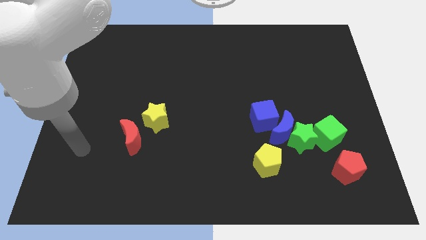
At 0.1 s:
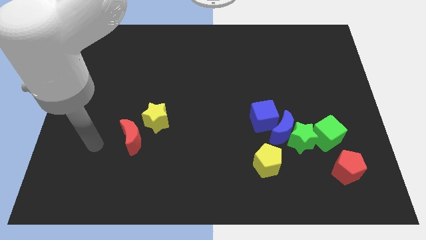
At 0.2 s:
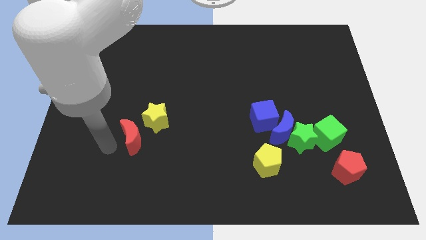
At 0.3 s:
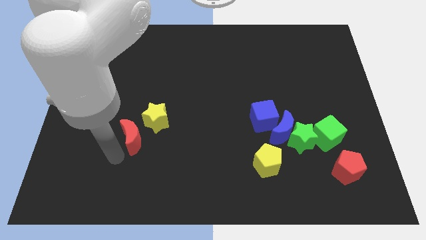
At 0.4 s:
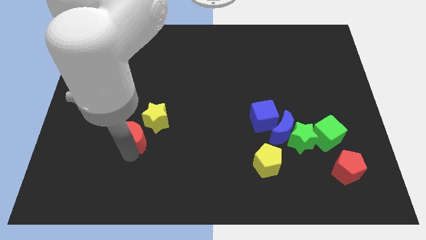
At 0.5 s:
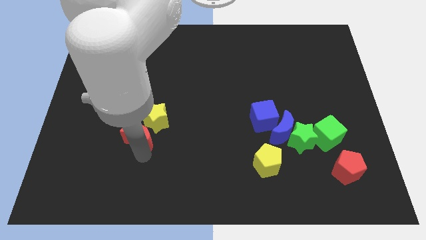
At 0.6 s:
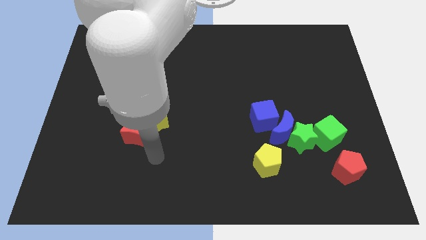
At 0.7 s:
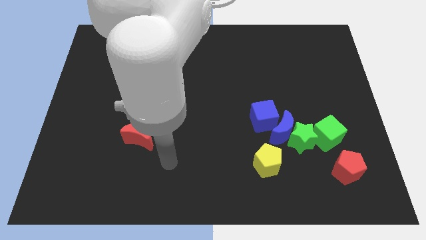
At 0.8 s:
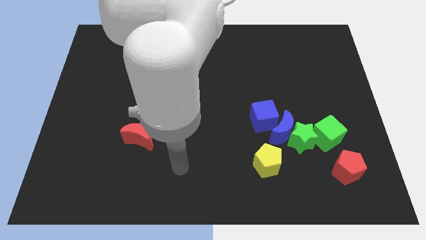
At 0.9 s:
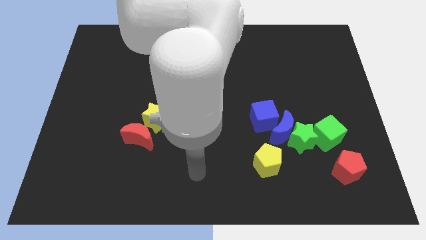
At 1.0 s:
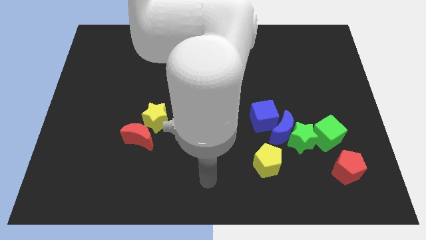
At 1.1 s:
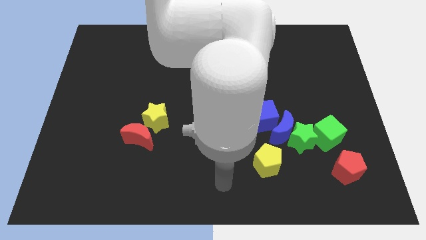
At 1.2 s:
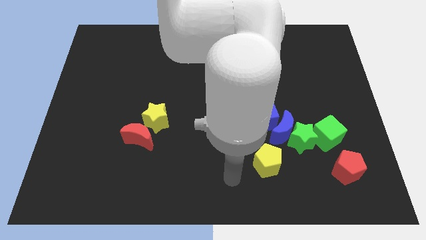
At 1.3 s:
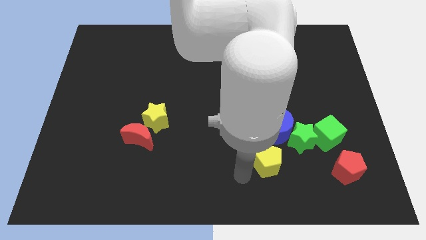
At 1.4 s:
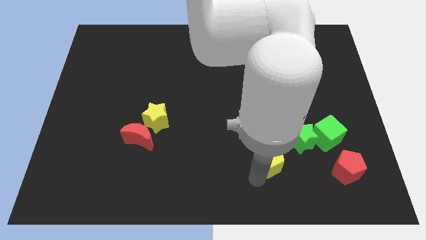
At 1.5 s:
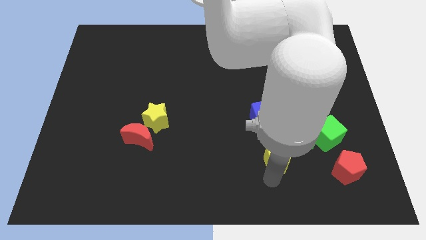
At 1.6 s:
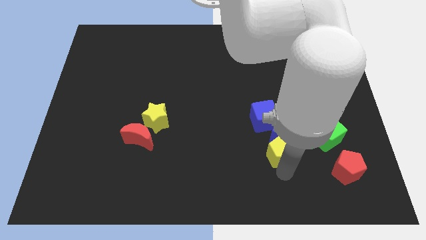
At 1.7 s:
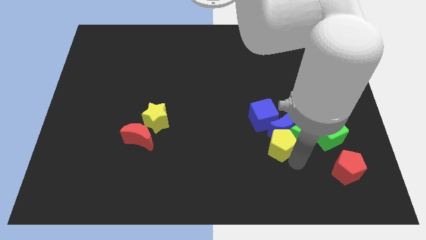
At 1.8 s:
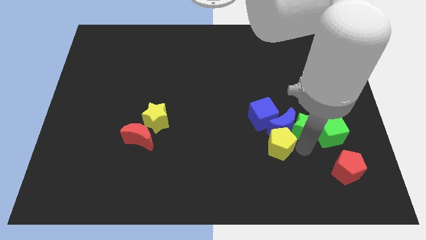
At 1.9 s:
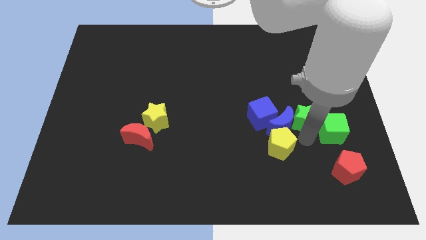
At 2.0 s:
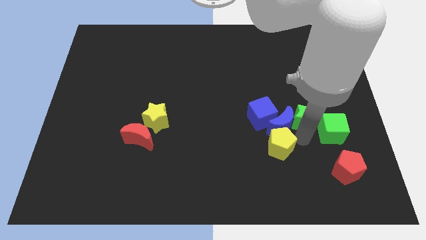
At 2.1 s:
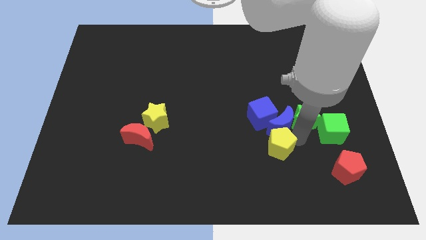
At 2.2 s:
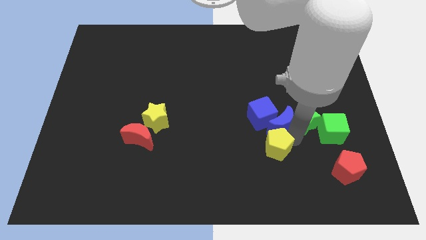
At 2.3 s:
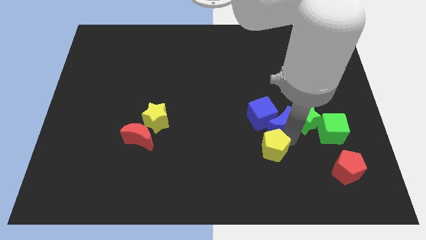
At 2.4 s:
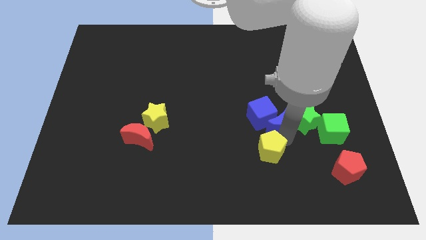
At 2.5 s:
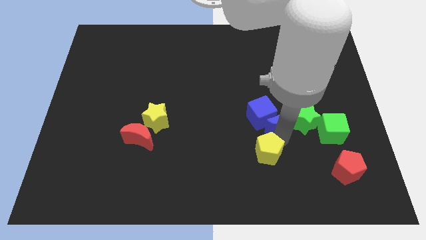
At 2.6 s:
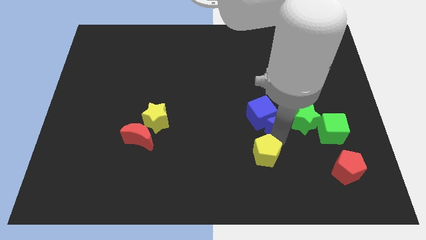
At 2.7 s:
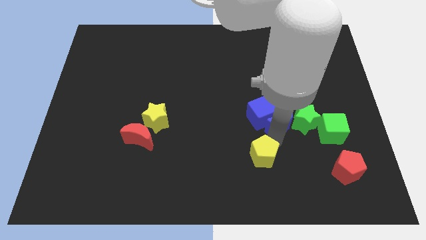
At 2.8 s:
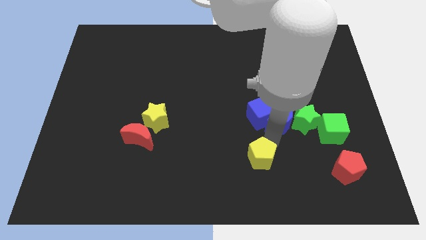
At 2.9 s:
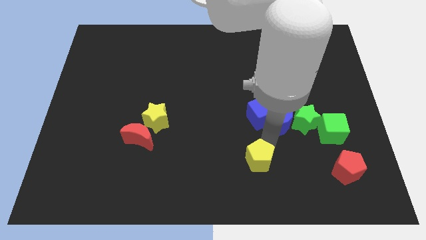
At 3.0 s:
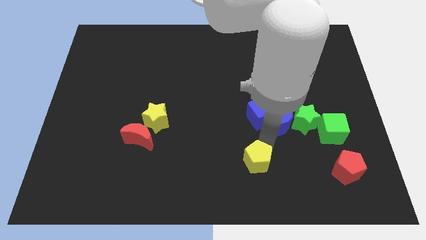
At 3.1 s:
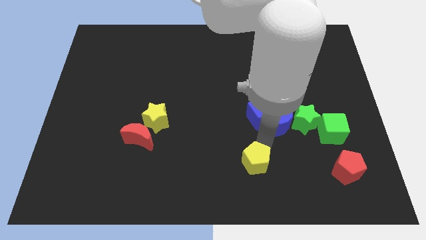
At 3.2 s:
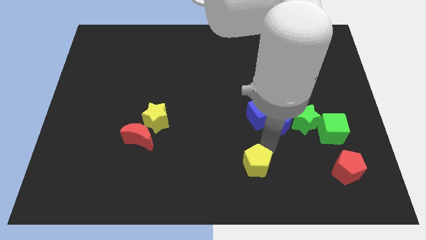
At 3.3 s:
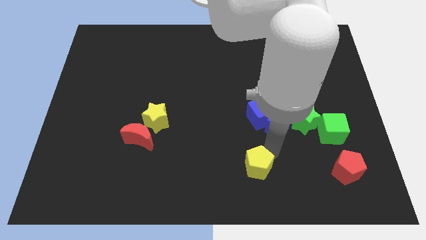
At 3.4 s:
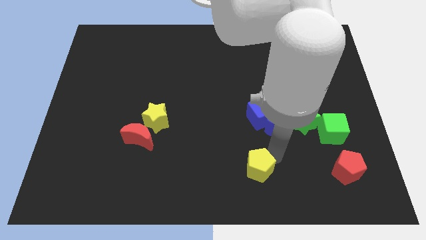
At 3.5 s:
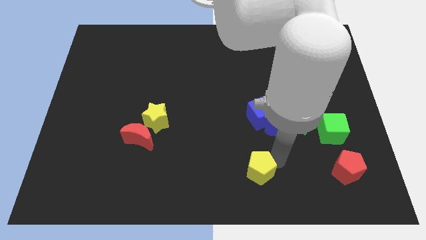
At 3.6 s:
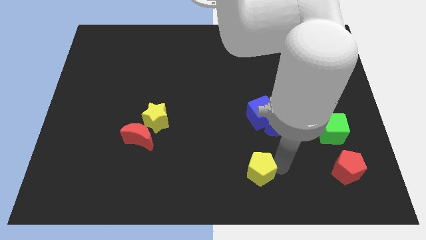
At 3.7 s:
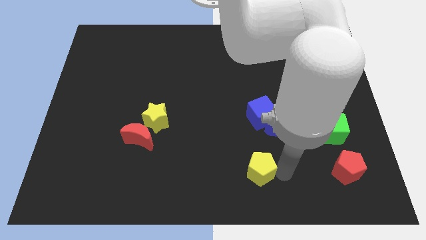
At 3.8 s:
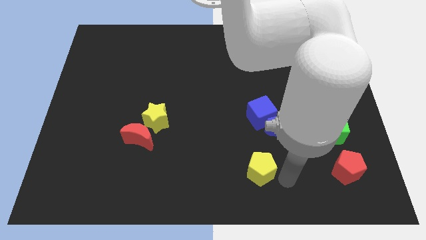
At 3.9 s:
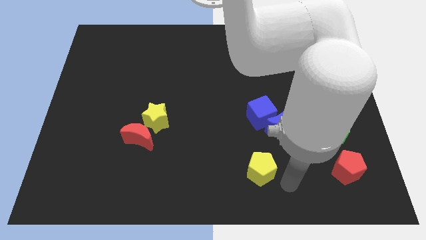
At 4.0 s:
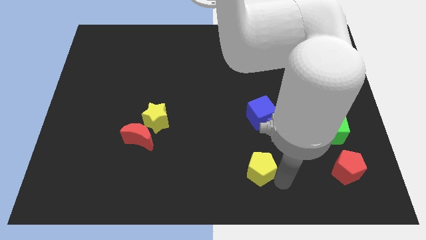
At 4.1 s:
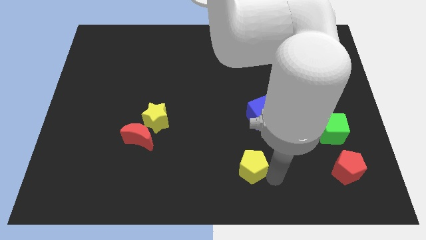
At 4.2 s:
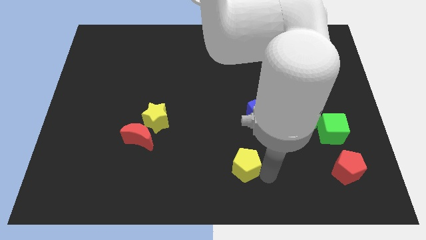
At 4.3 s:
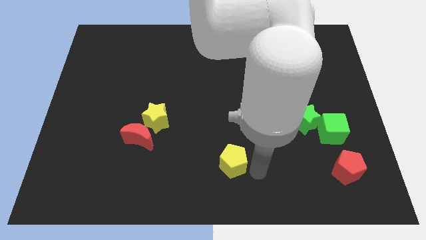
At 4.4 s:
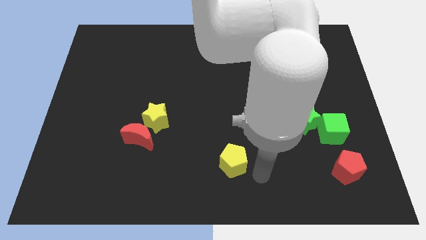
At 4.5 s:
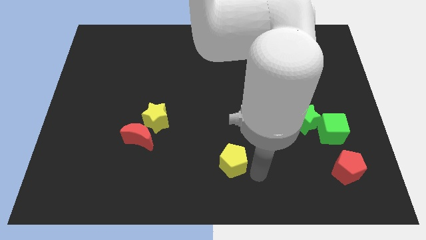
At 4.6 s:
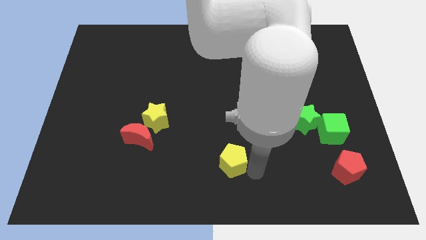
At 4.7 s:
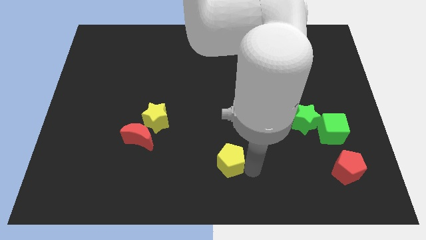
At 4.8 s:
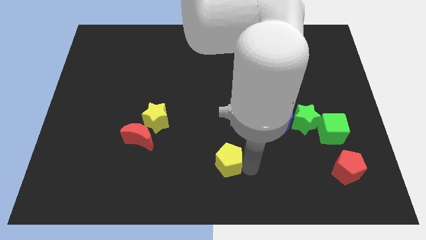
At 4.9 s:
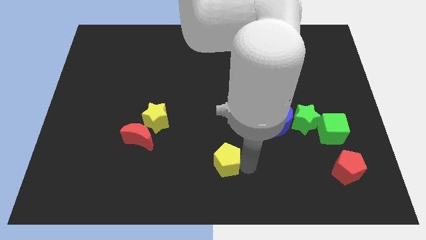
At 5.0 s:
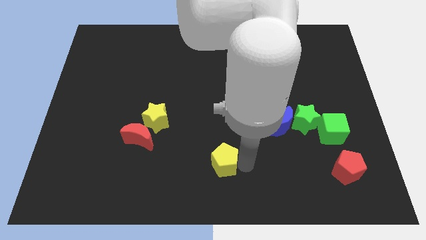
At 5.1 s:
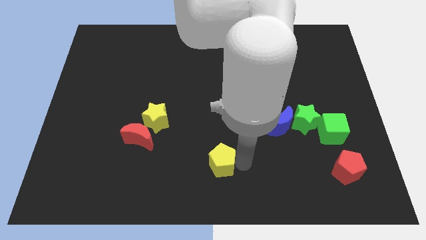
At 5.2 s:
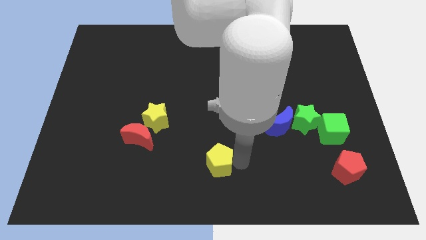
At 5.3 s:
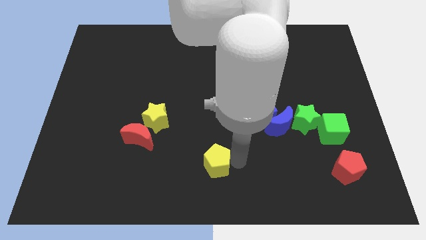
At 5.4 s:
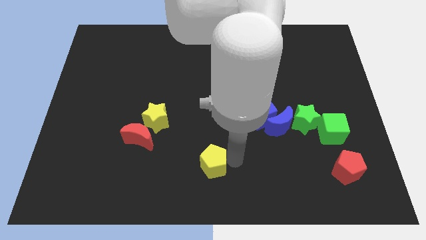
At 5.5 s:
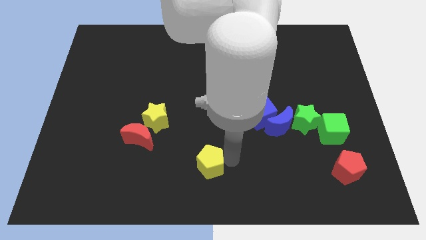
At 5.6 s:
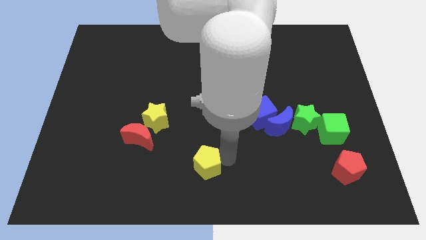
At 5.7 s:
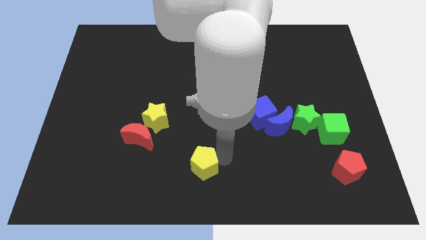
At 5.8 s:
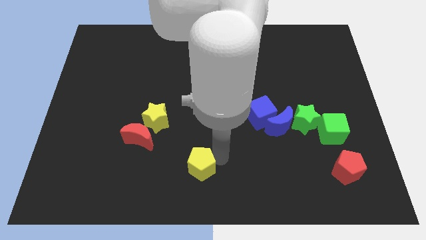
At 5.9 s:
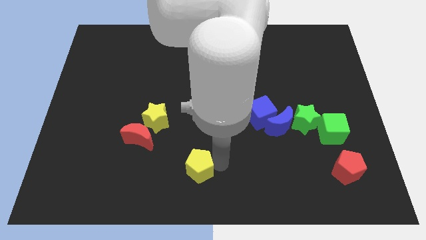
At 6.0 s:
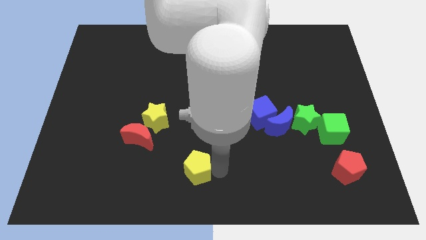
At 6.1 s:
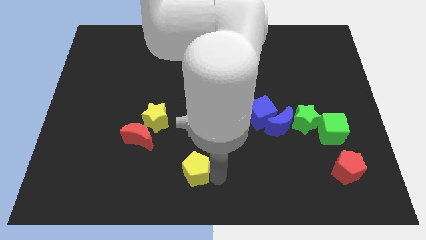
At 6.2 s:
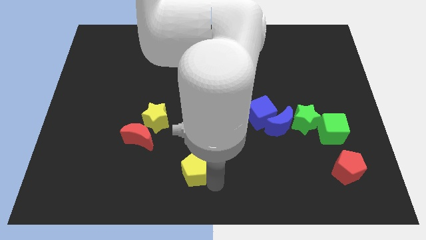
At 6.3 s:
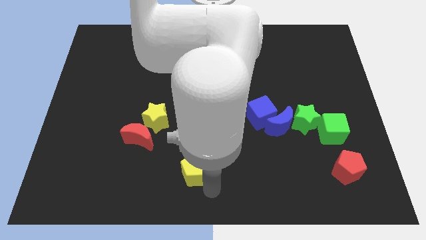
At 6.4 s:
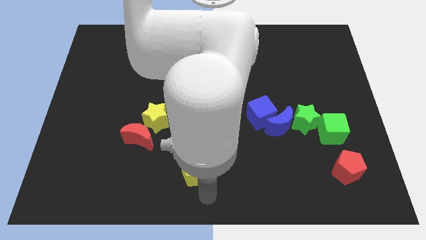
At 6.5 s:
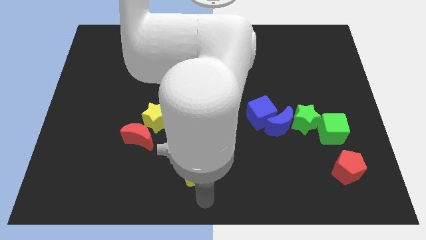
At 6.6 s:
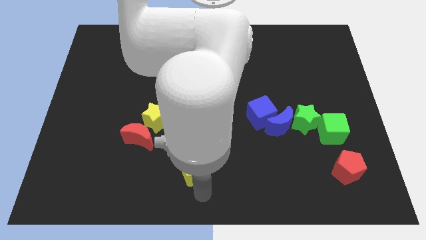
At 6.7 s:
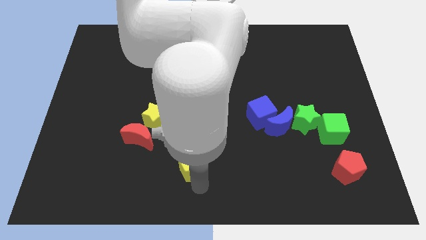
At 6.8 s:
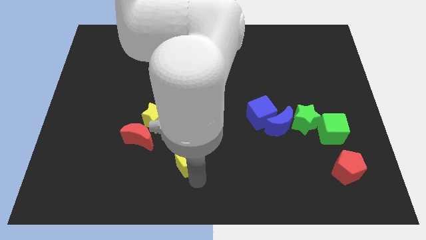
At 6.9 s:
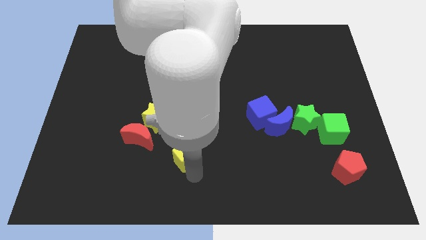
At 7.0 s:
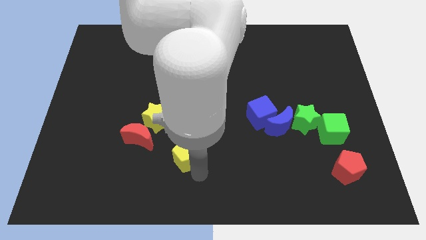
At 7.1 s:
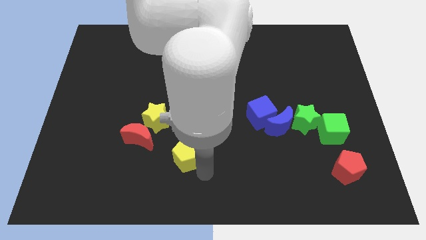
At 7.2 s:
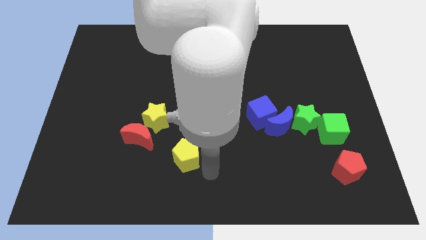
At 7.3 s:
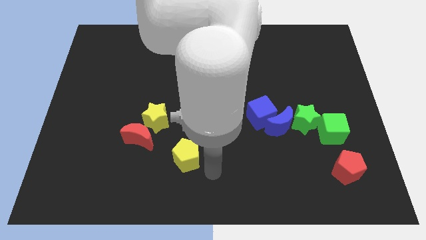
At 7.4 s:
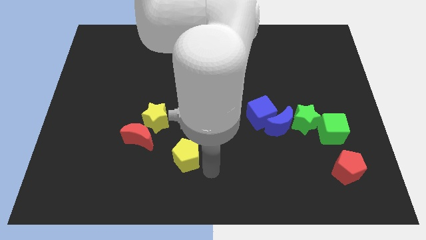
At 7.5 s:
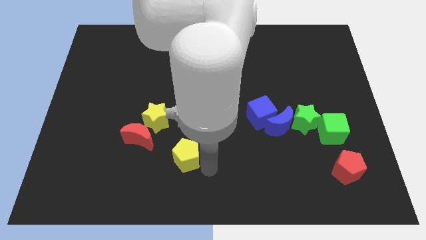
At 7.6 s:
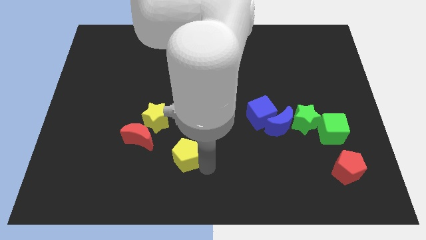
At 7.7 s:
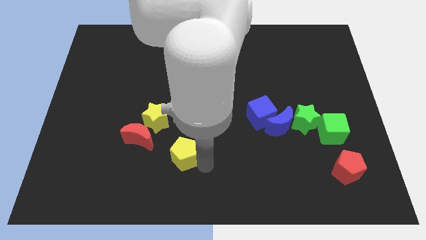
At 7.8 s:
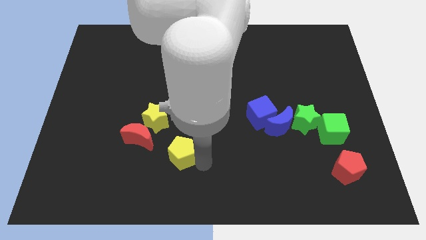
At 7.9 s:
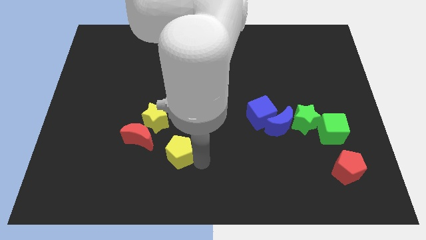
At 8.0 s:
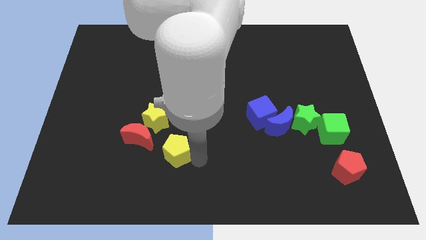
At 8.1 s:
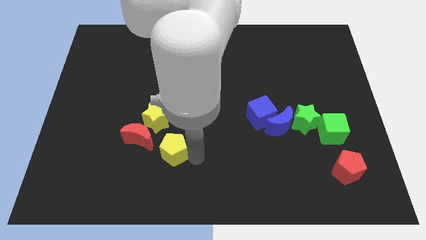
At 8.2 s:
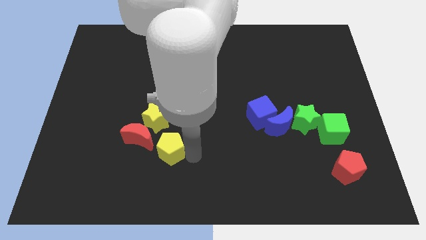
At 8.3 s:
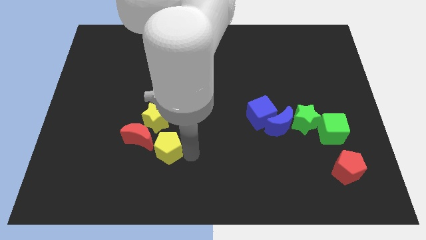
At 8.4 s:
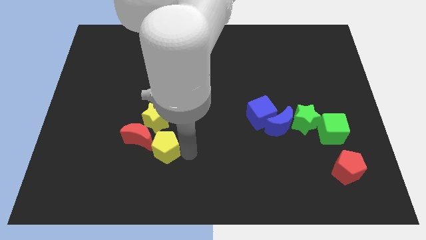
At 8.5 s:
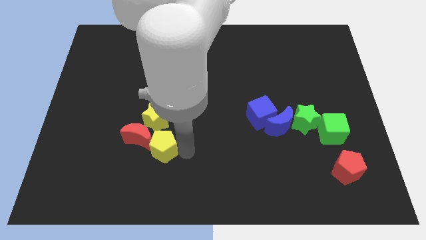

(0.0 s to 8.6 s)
slide the yellow pentagon to the red moon
